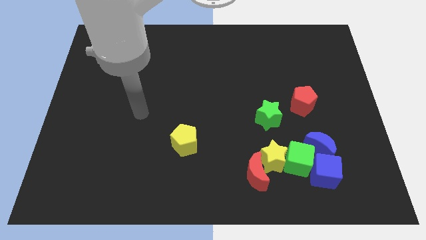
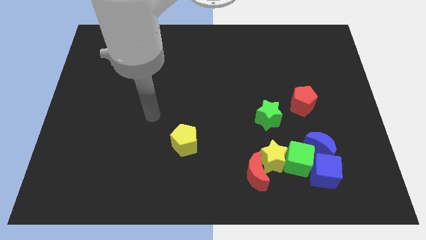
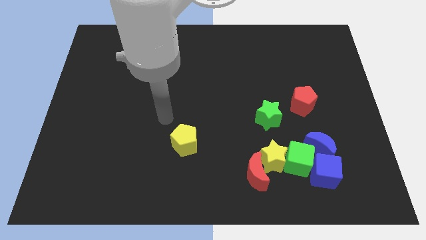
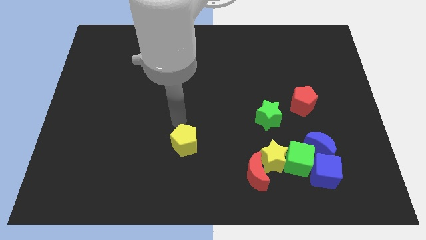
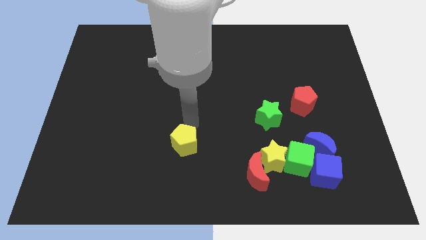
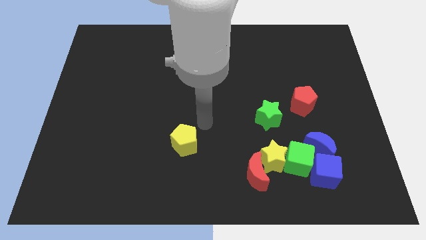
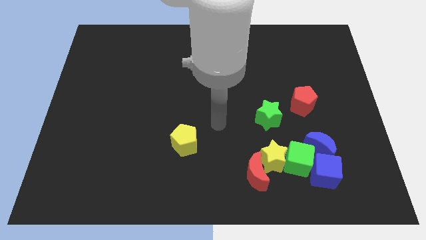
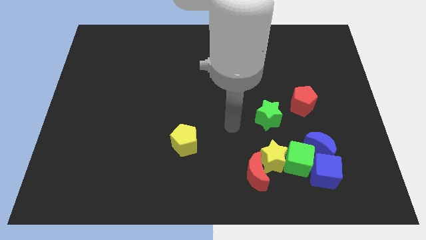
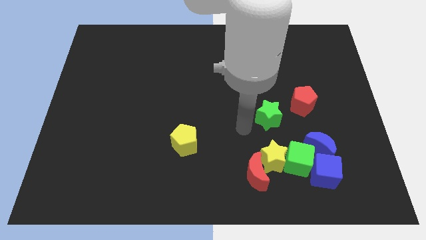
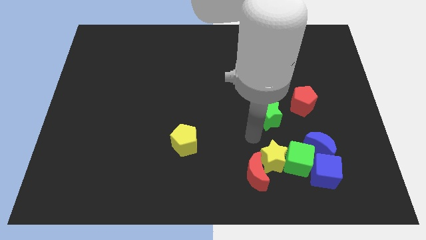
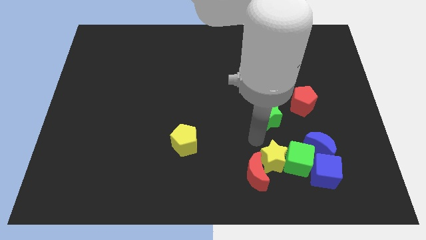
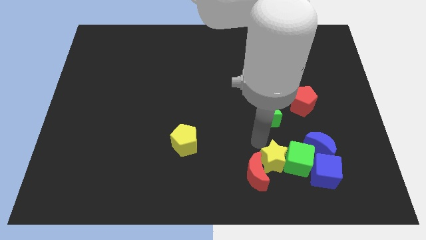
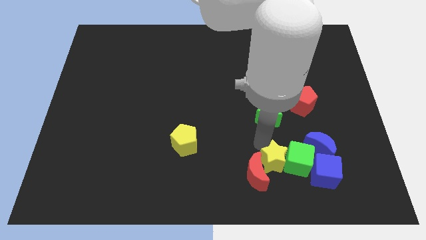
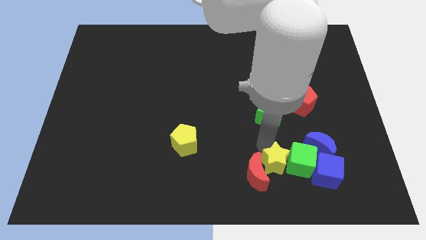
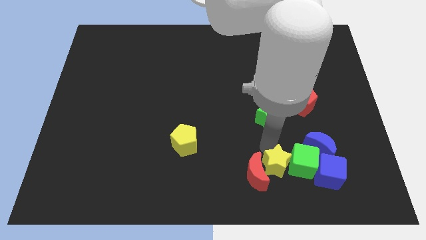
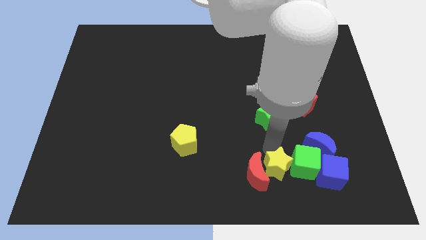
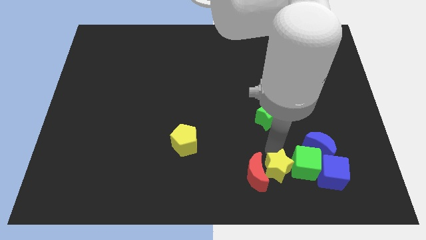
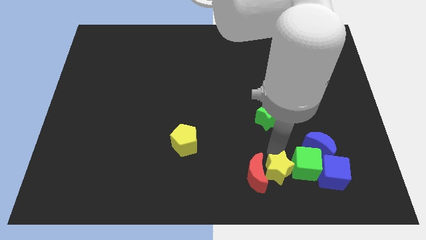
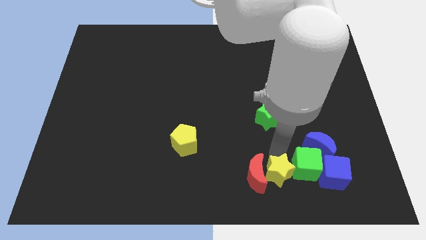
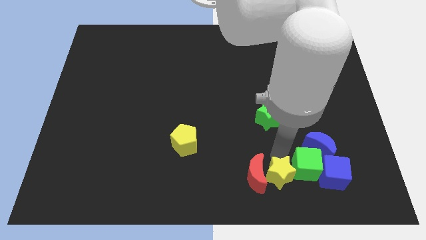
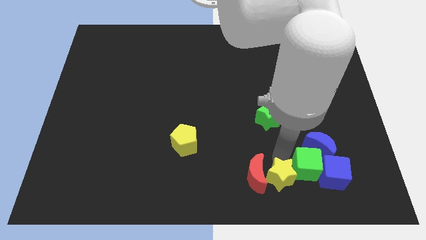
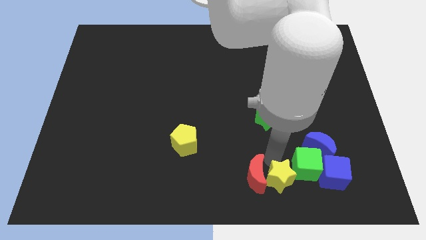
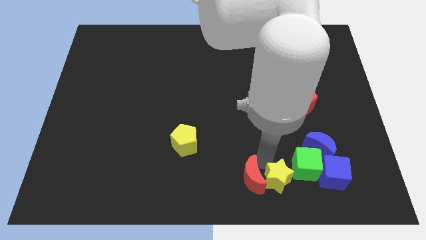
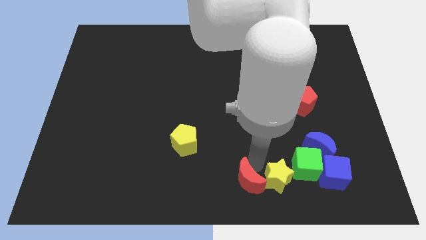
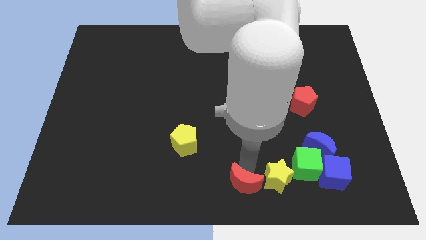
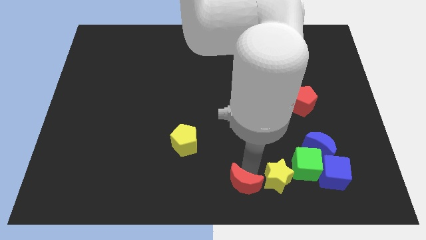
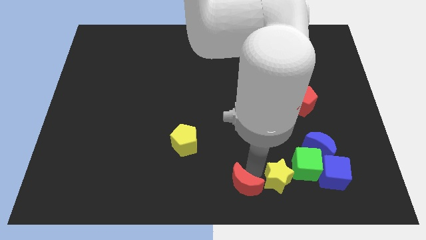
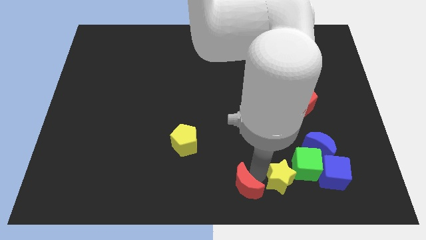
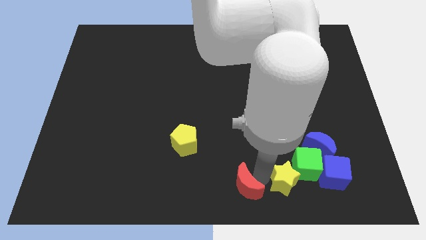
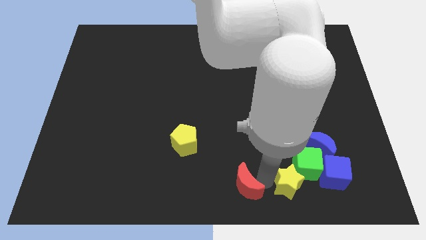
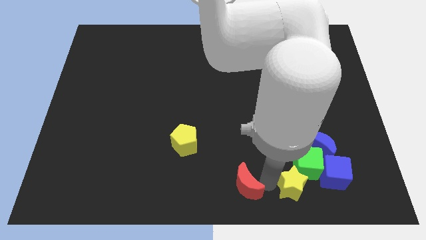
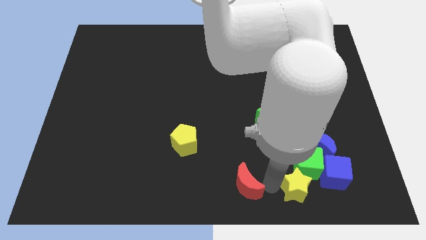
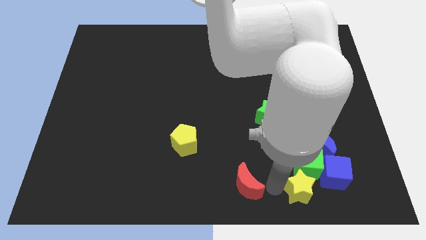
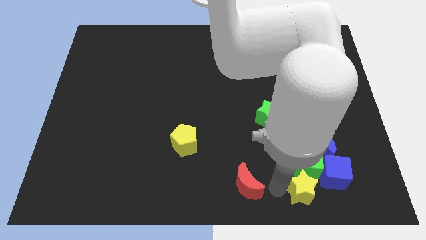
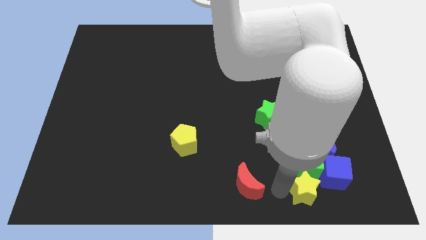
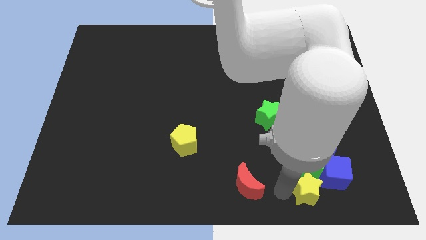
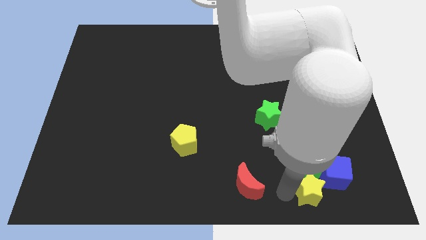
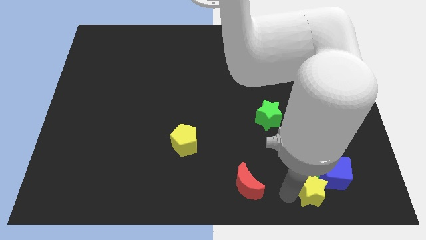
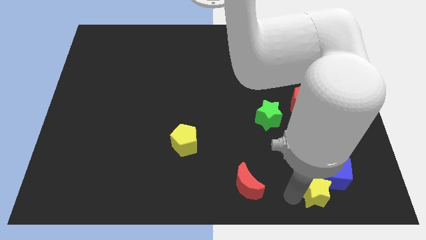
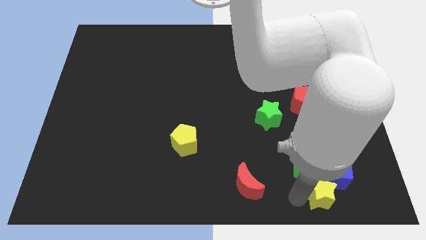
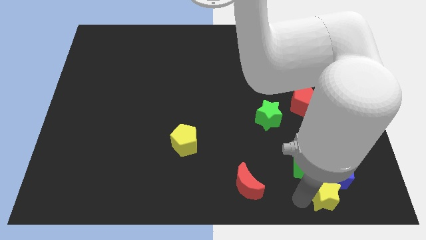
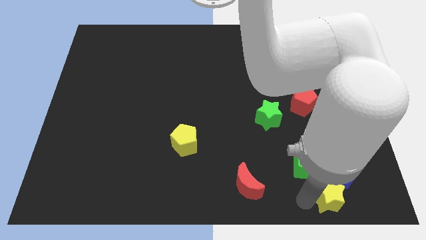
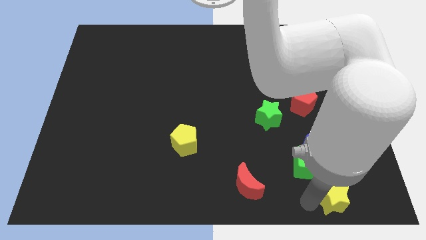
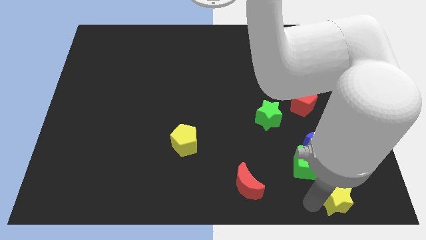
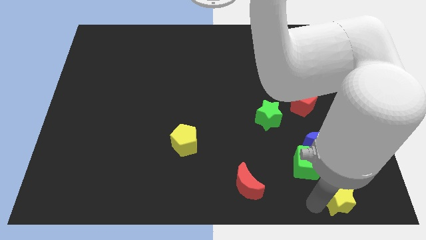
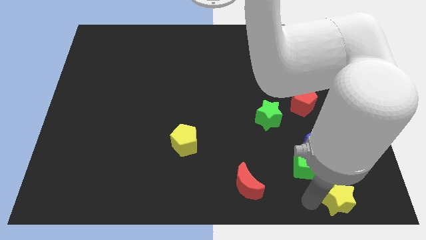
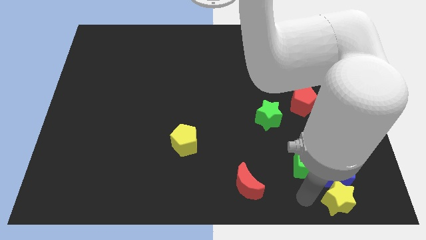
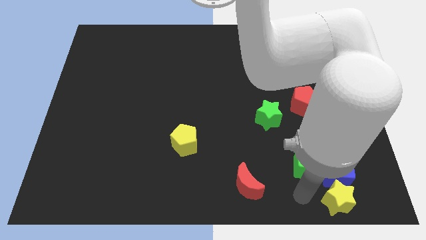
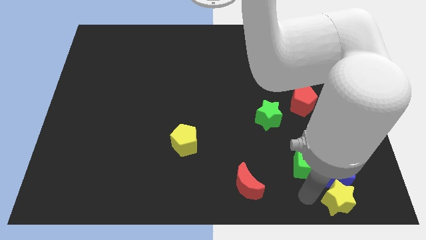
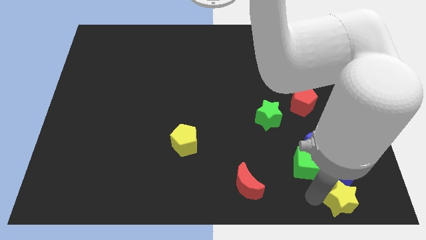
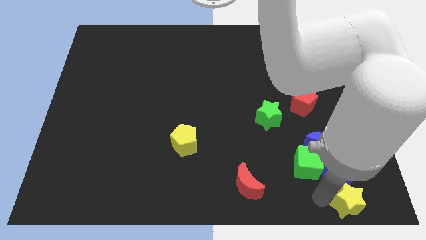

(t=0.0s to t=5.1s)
move the yellow star to the bottom right

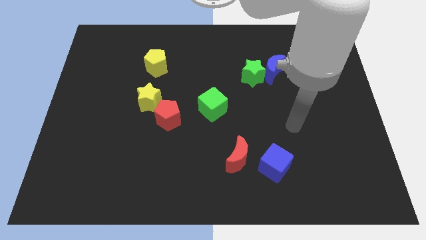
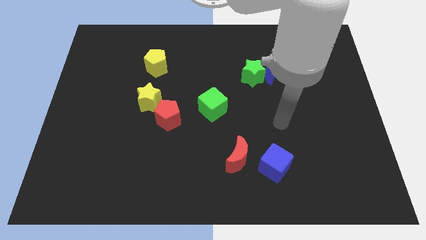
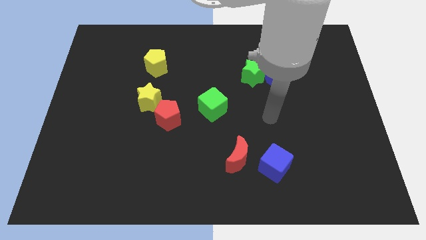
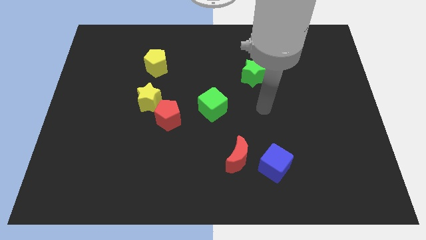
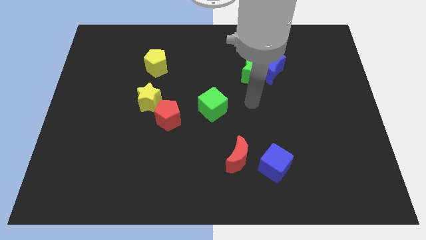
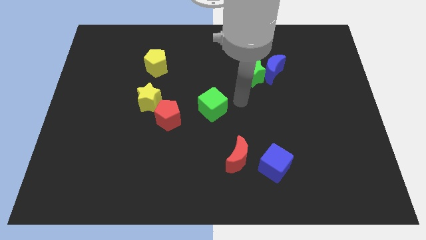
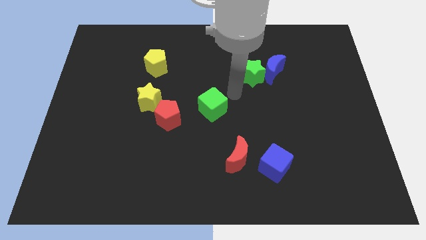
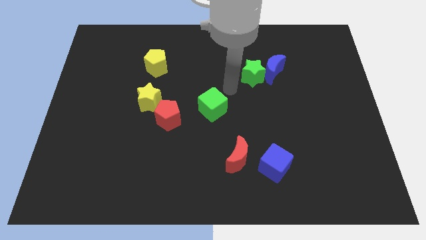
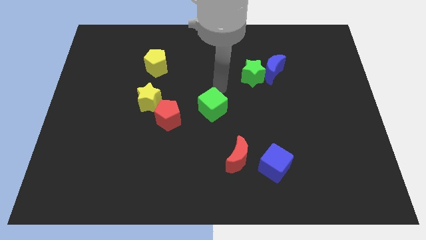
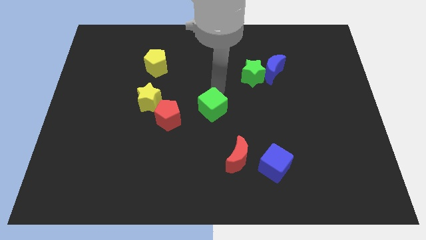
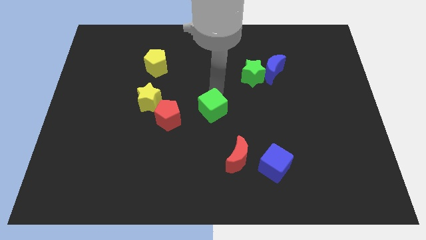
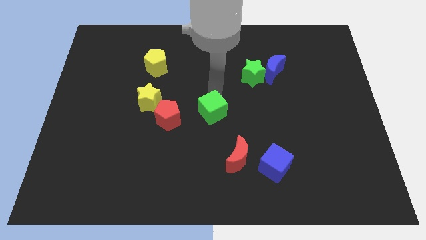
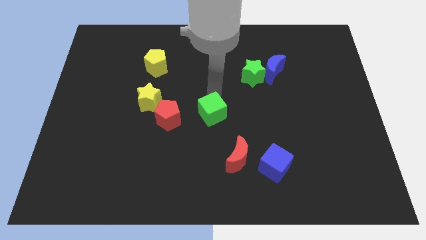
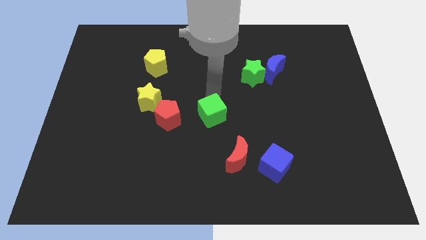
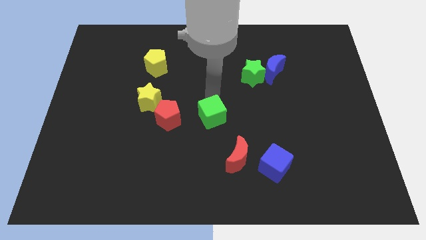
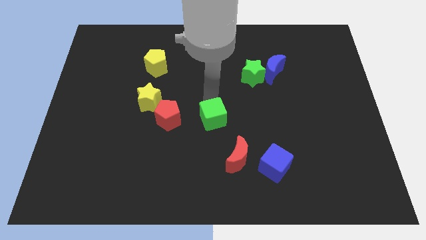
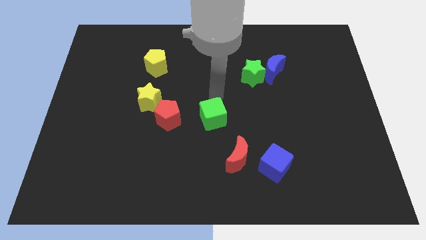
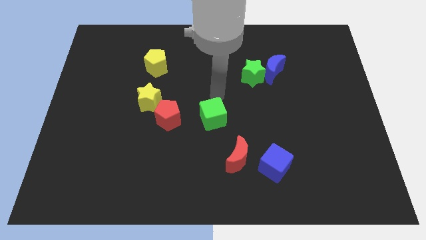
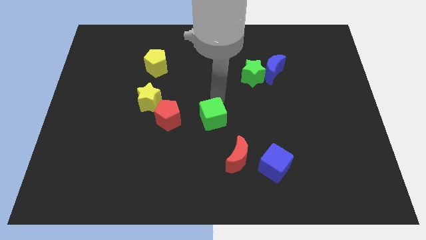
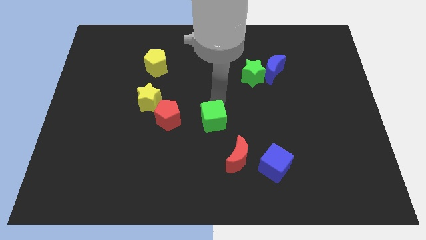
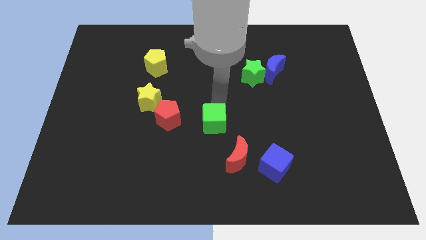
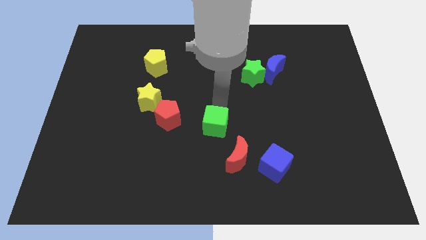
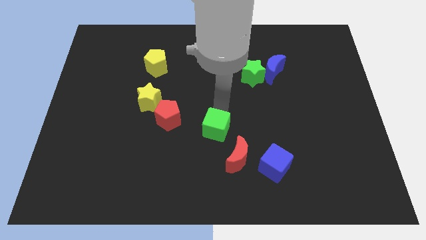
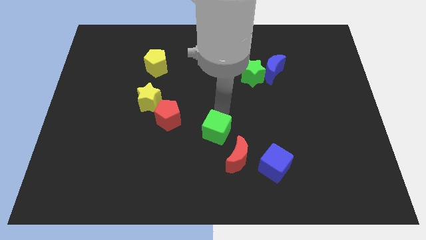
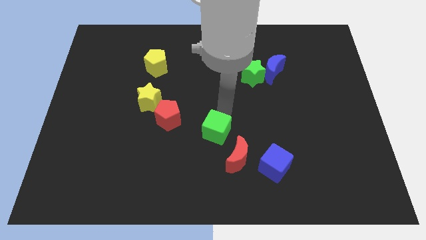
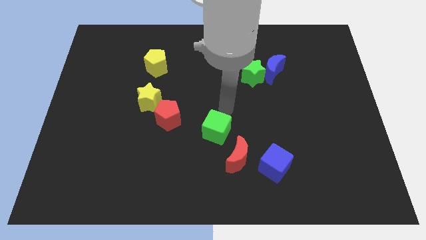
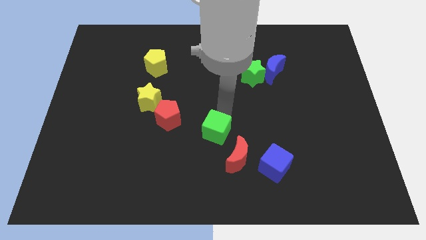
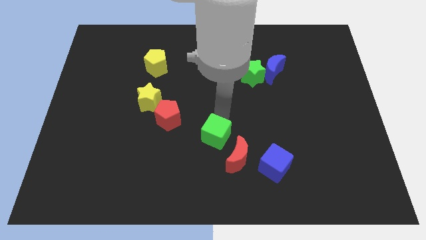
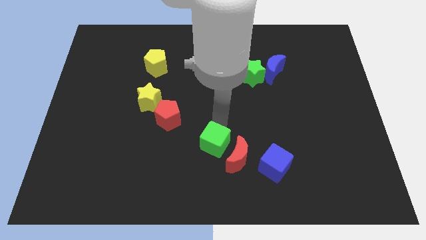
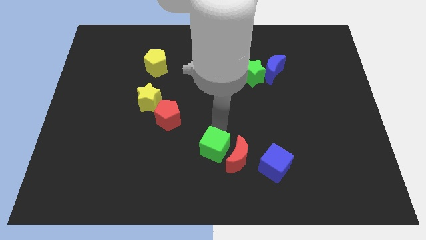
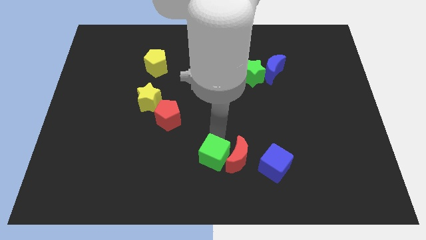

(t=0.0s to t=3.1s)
move the green cube to the bottom side
